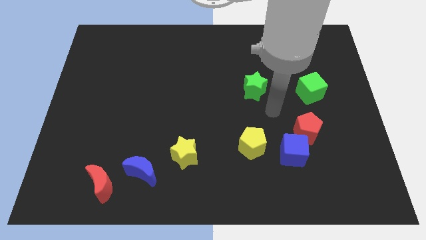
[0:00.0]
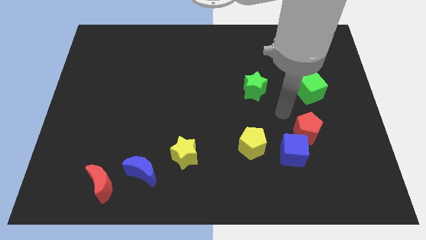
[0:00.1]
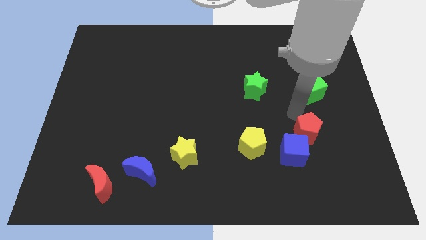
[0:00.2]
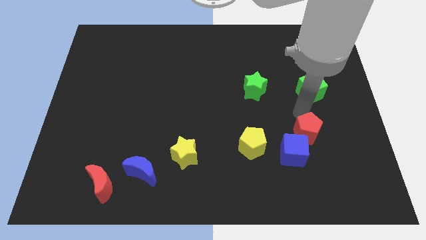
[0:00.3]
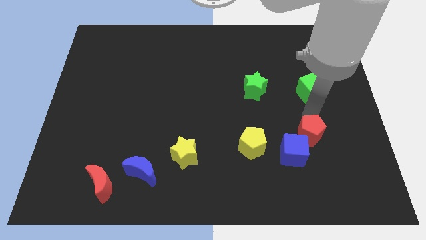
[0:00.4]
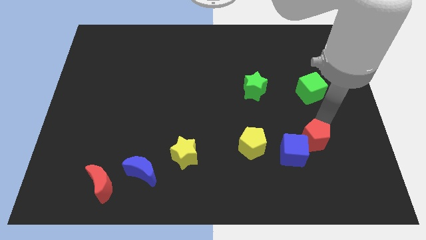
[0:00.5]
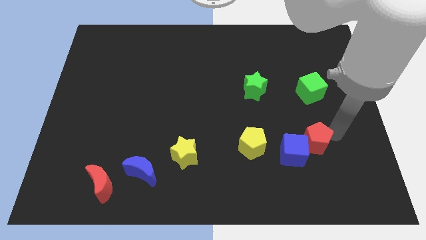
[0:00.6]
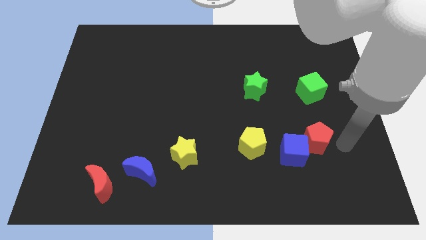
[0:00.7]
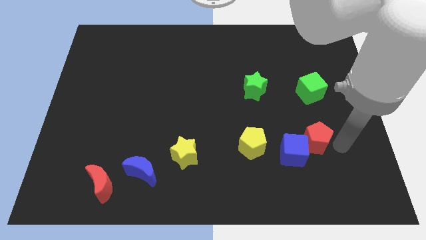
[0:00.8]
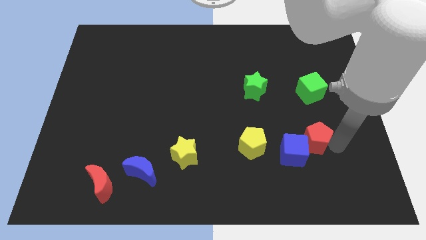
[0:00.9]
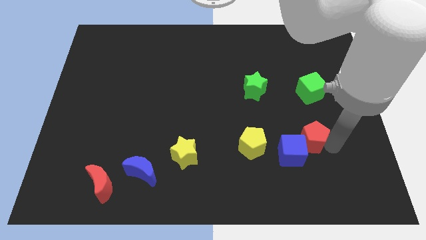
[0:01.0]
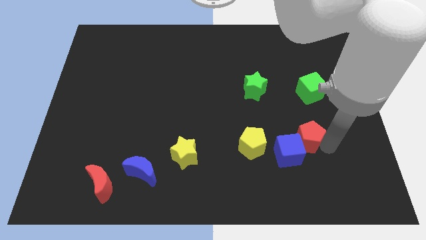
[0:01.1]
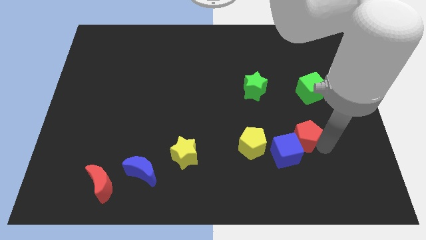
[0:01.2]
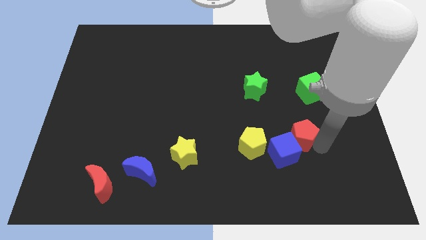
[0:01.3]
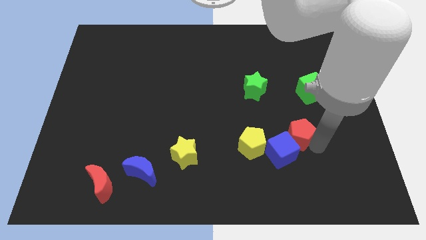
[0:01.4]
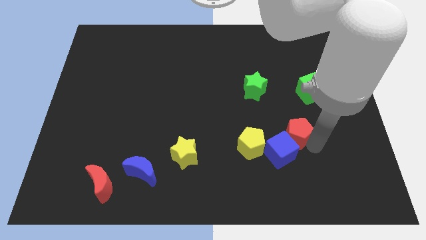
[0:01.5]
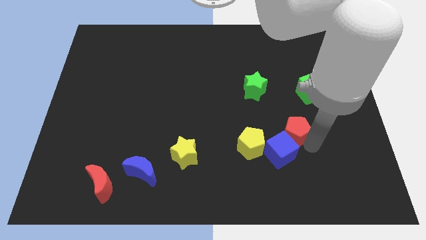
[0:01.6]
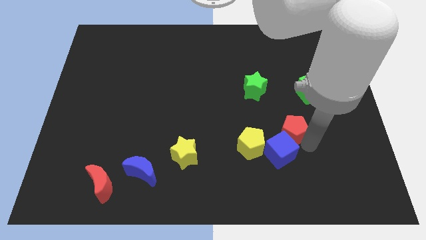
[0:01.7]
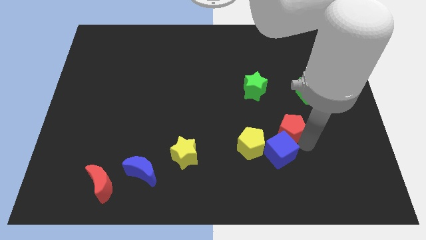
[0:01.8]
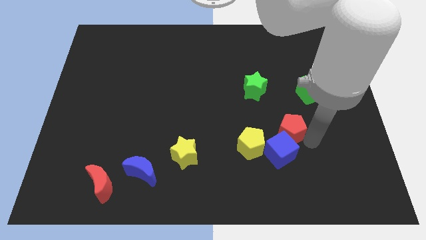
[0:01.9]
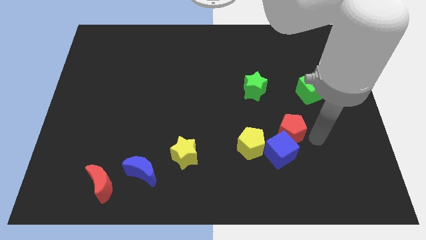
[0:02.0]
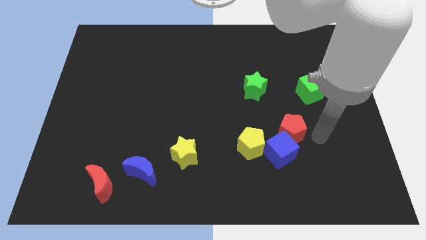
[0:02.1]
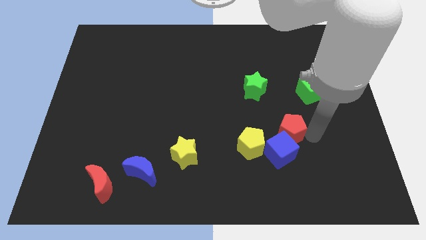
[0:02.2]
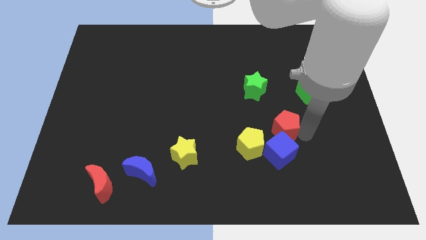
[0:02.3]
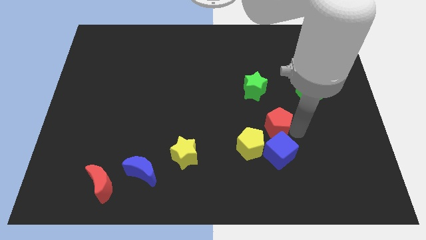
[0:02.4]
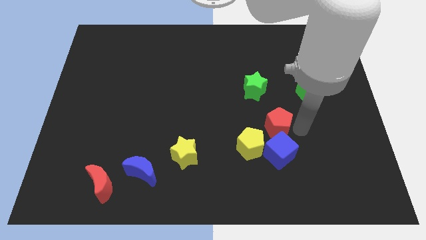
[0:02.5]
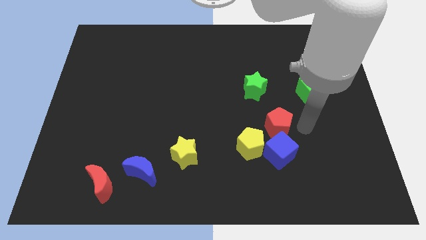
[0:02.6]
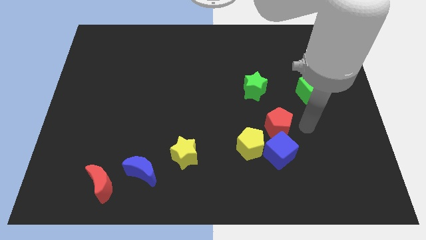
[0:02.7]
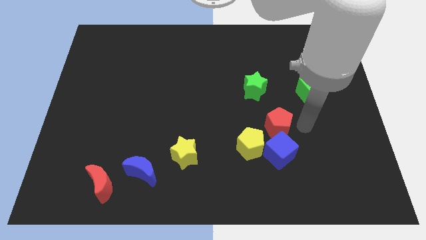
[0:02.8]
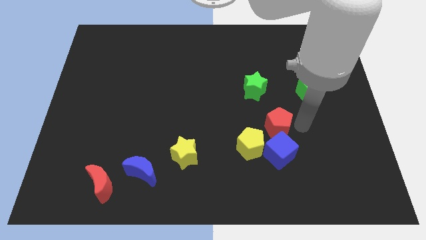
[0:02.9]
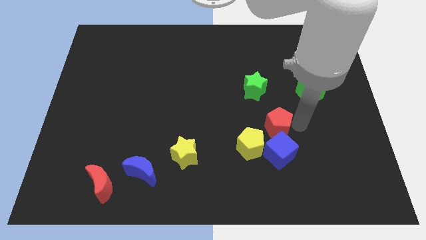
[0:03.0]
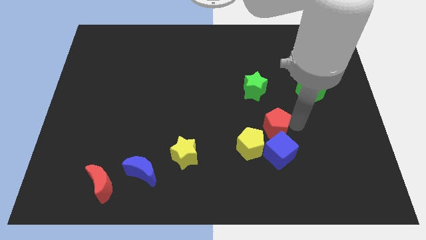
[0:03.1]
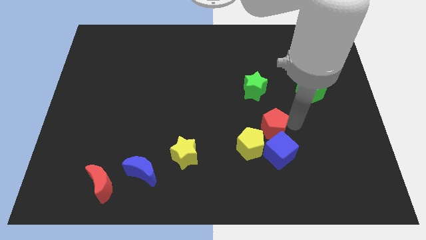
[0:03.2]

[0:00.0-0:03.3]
move the red pentagon somewhat left

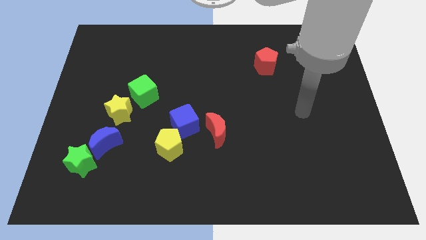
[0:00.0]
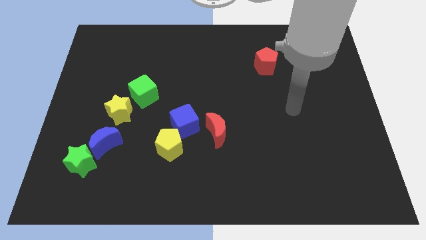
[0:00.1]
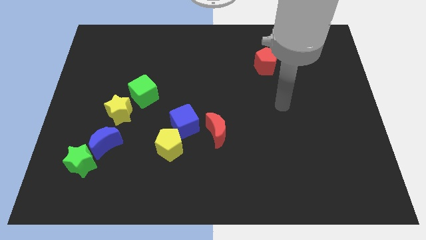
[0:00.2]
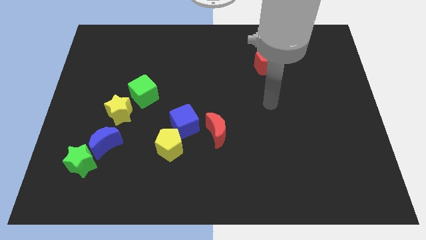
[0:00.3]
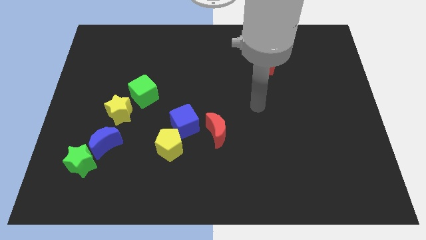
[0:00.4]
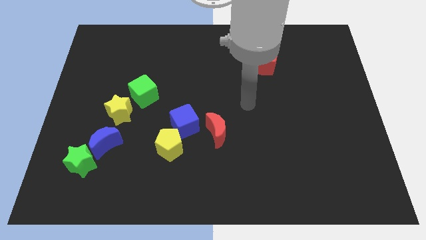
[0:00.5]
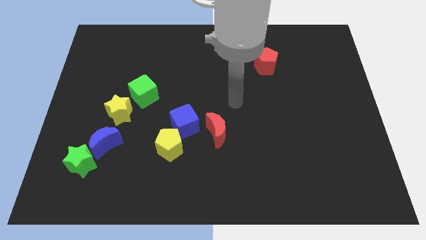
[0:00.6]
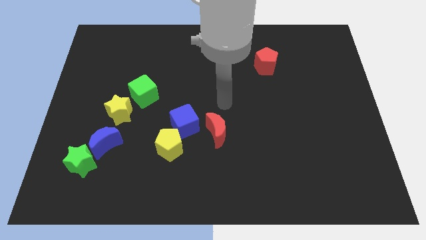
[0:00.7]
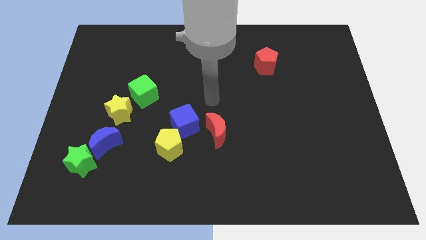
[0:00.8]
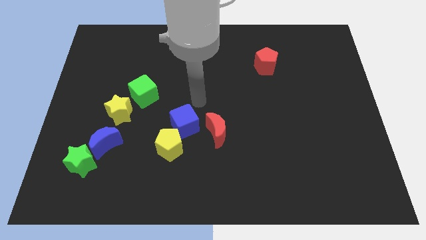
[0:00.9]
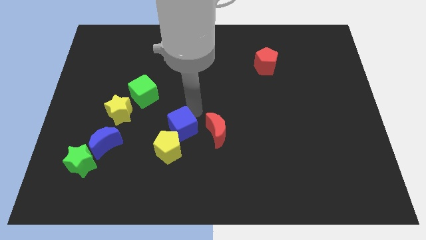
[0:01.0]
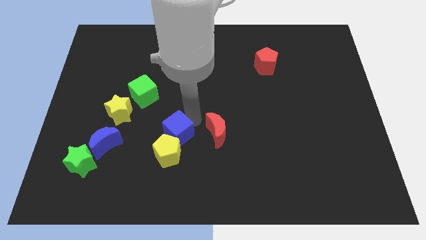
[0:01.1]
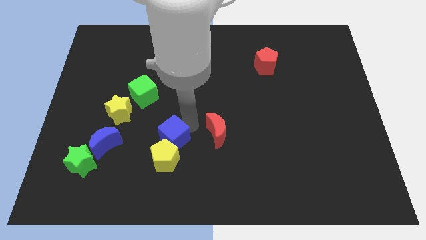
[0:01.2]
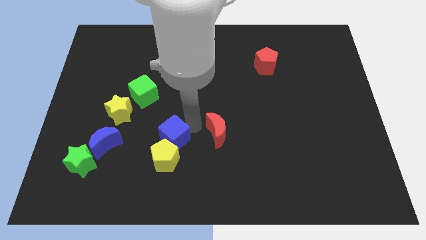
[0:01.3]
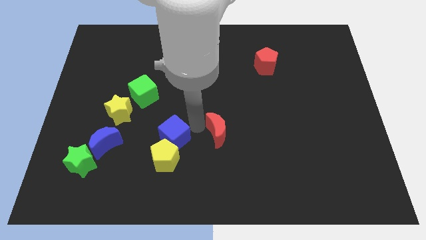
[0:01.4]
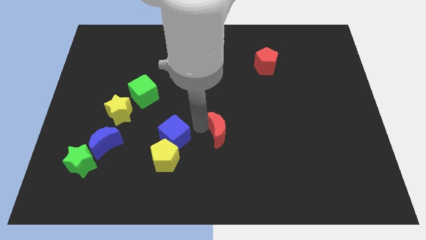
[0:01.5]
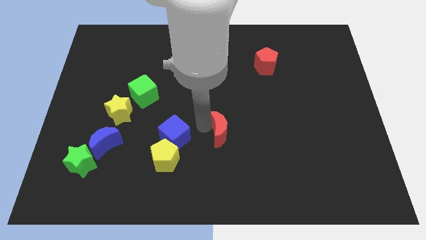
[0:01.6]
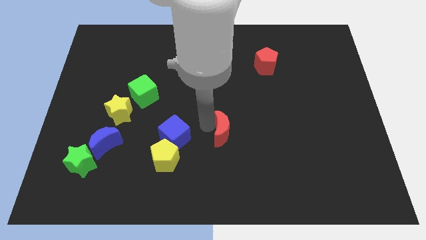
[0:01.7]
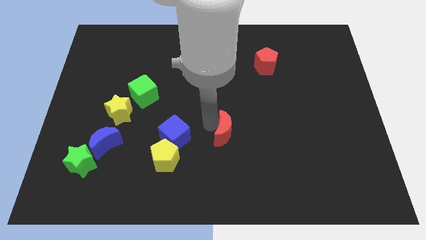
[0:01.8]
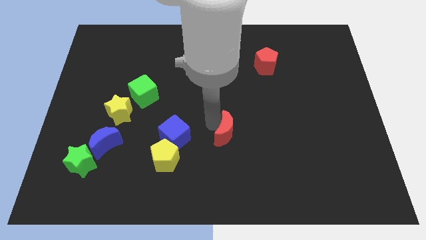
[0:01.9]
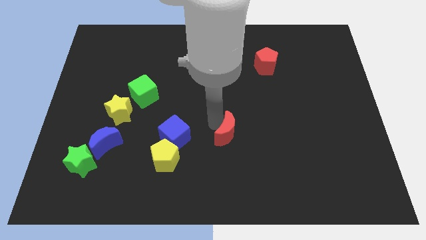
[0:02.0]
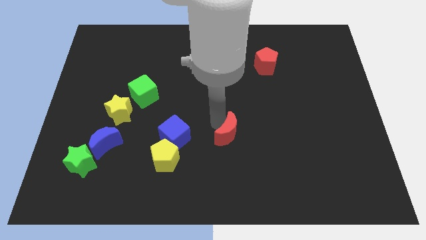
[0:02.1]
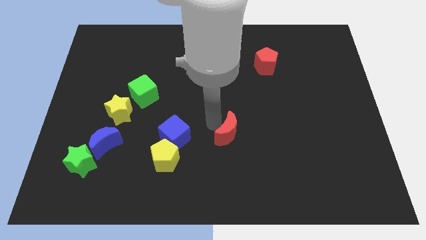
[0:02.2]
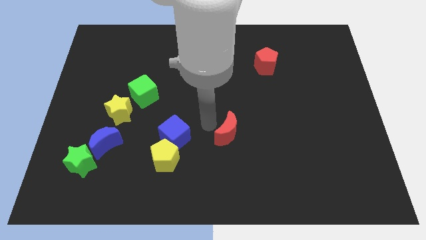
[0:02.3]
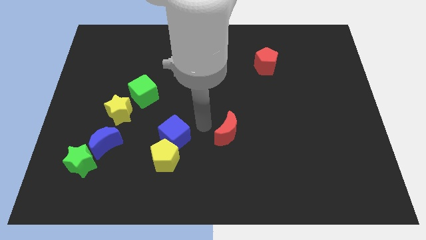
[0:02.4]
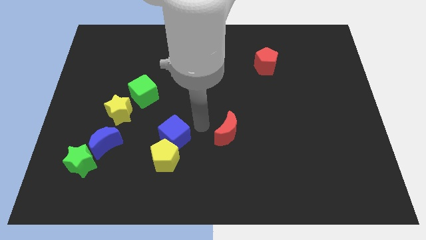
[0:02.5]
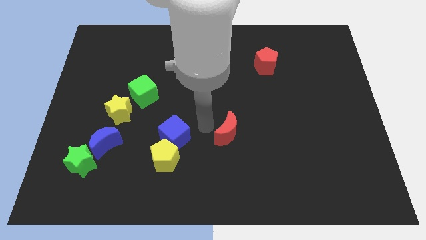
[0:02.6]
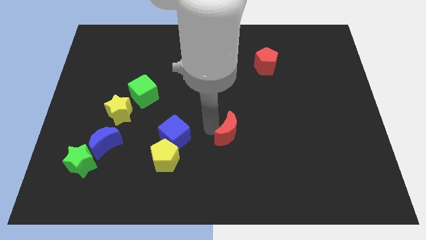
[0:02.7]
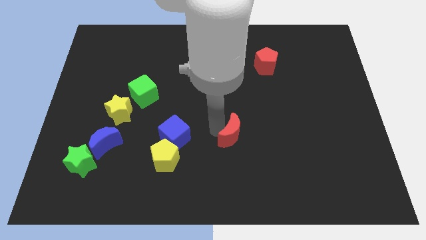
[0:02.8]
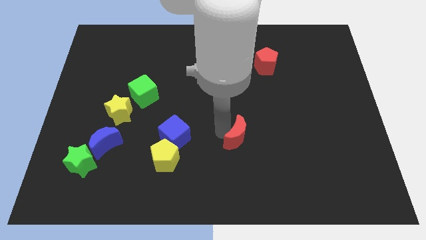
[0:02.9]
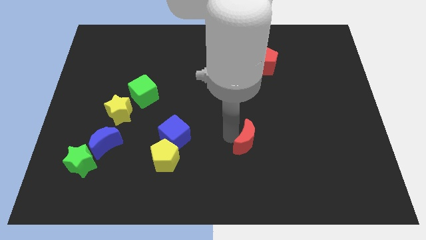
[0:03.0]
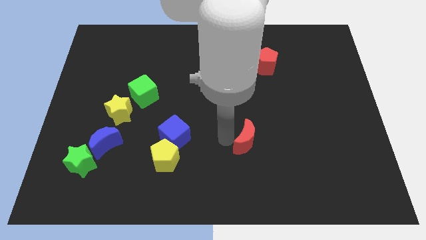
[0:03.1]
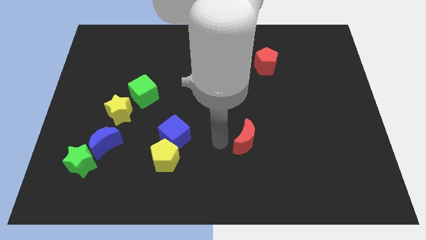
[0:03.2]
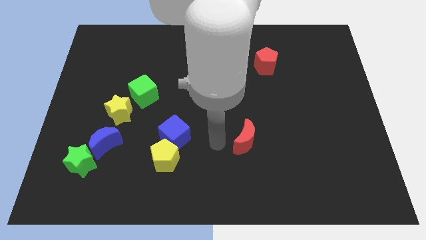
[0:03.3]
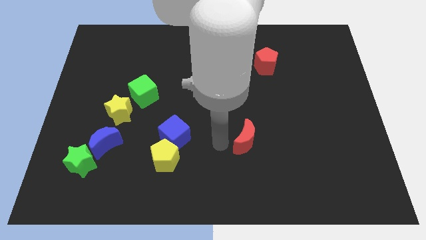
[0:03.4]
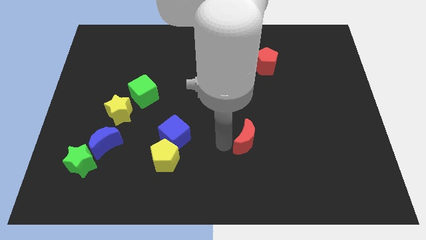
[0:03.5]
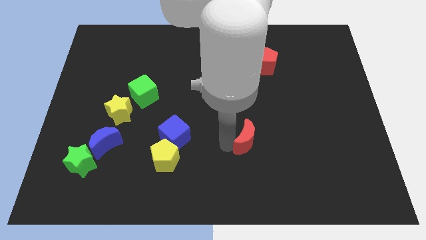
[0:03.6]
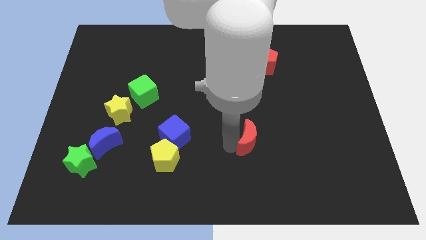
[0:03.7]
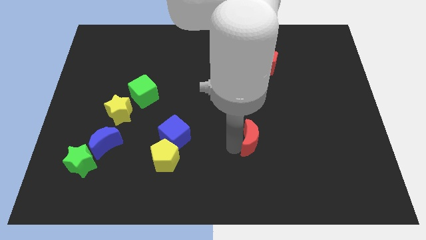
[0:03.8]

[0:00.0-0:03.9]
slightly move the red moon right

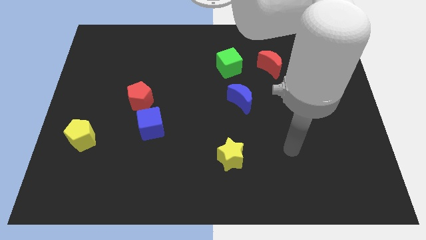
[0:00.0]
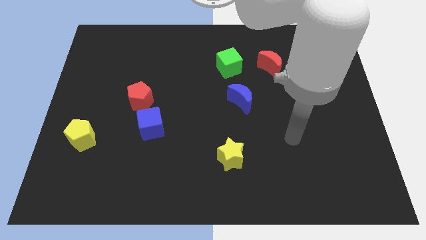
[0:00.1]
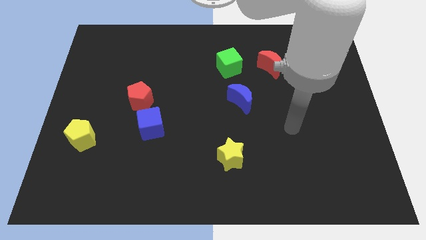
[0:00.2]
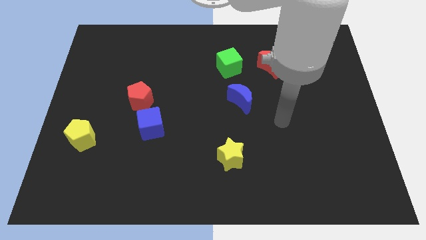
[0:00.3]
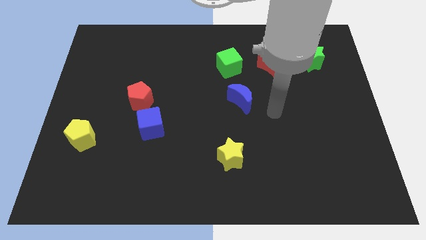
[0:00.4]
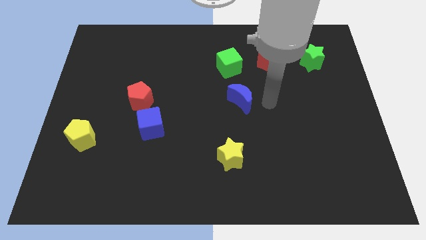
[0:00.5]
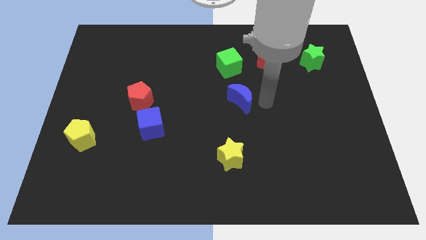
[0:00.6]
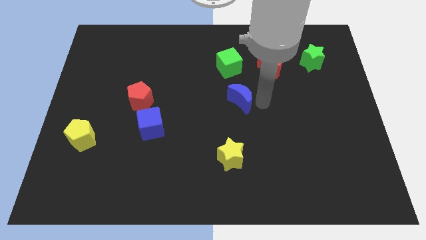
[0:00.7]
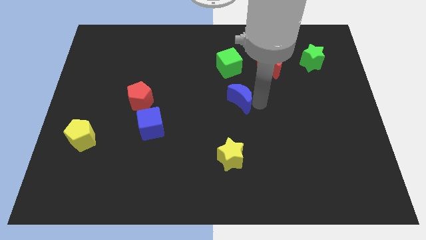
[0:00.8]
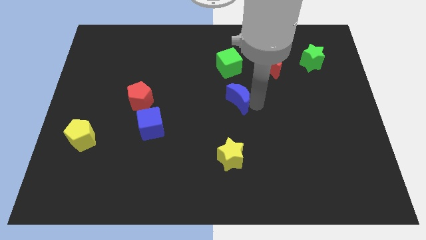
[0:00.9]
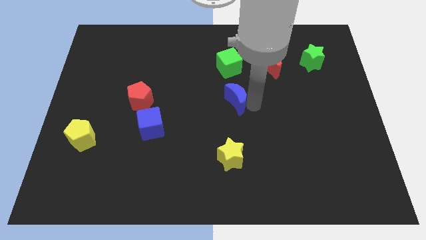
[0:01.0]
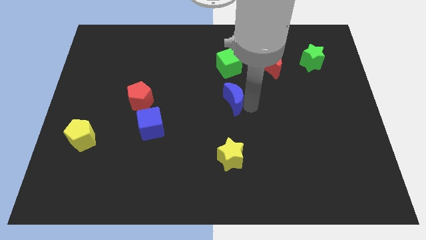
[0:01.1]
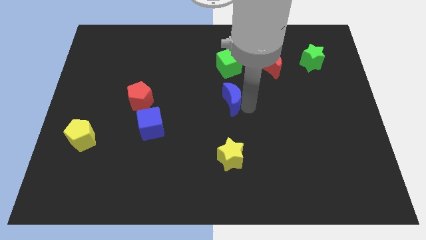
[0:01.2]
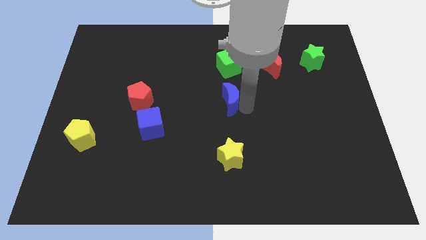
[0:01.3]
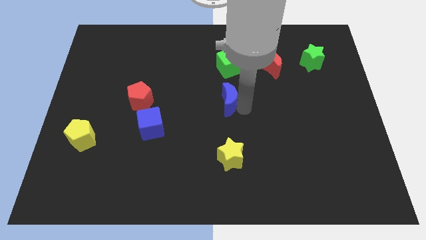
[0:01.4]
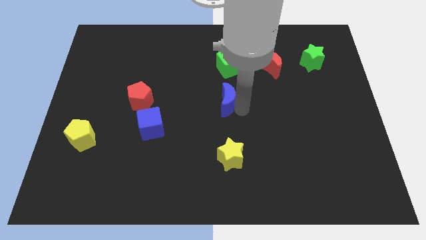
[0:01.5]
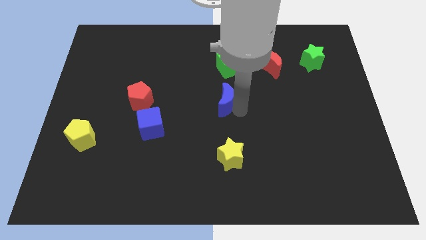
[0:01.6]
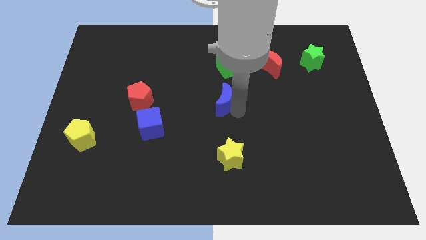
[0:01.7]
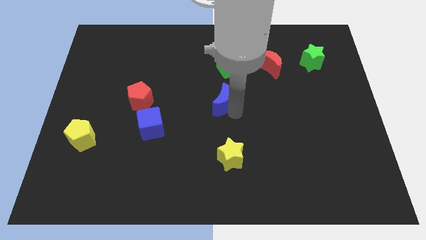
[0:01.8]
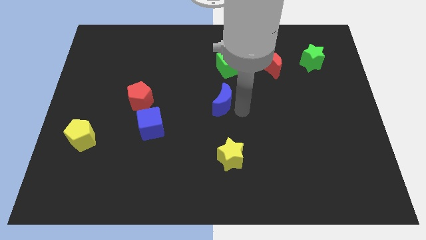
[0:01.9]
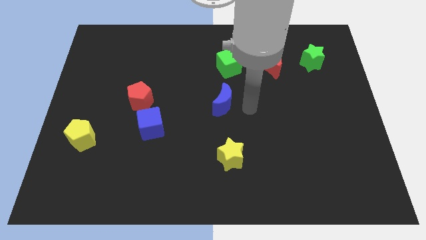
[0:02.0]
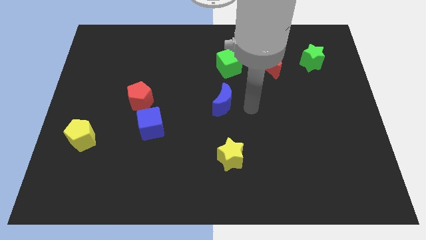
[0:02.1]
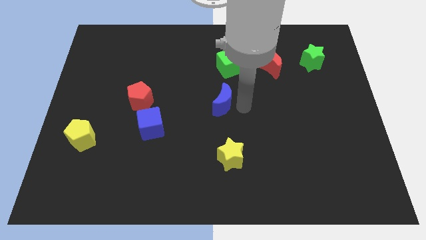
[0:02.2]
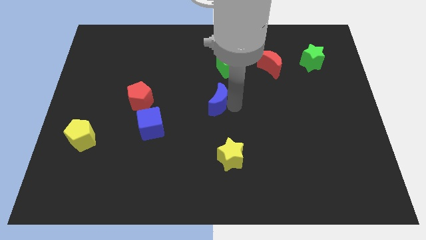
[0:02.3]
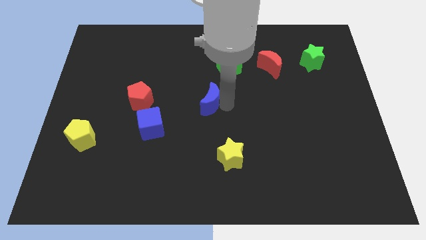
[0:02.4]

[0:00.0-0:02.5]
move the blue moon slightly left
